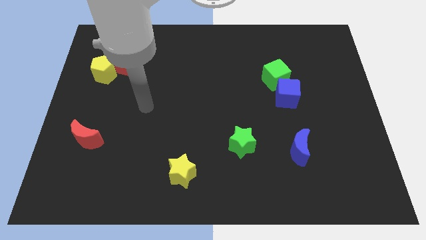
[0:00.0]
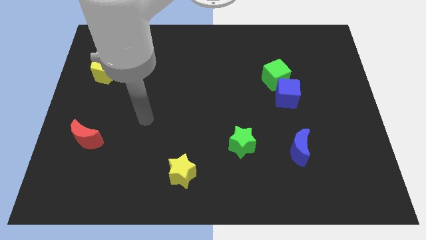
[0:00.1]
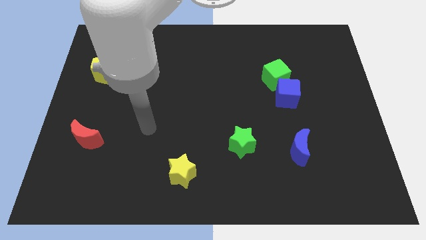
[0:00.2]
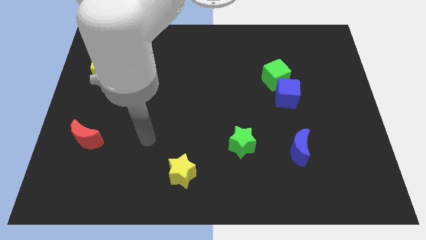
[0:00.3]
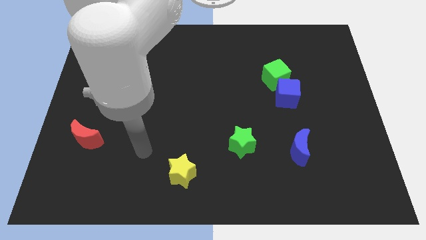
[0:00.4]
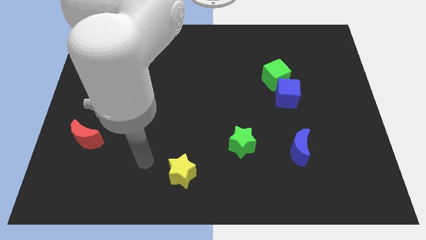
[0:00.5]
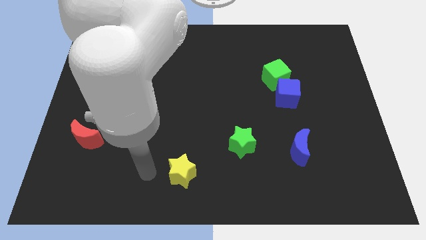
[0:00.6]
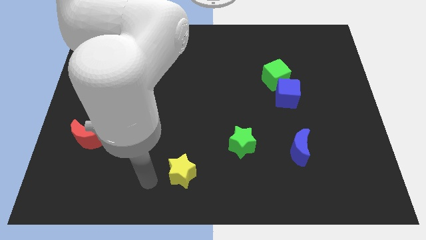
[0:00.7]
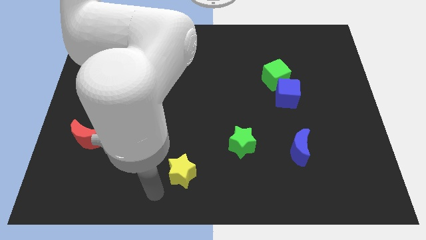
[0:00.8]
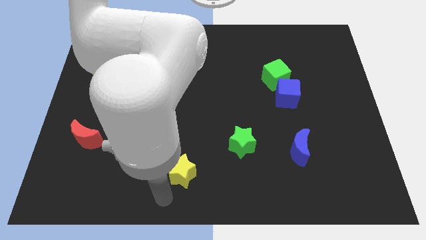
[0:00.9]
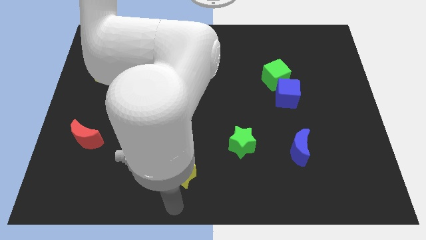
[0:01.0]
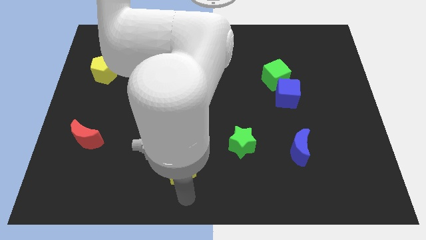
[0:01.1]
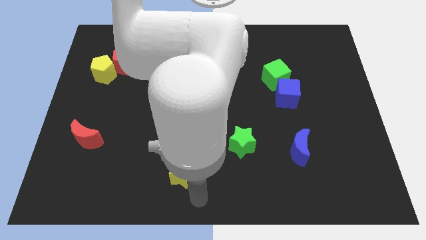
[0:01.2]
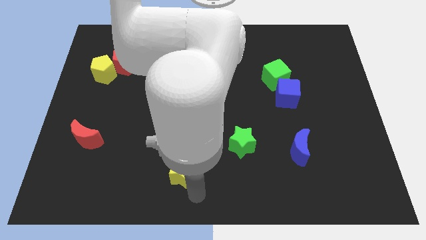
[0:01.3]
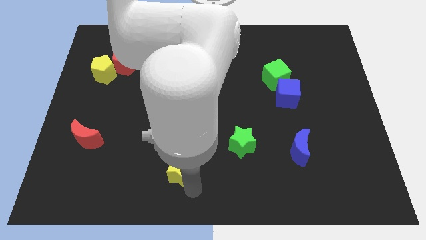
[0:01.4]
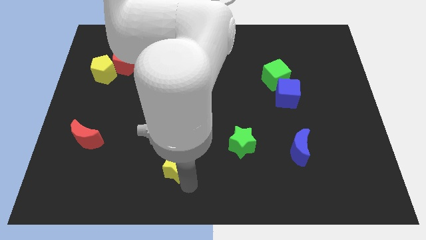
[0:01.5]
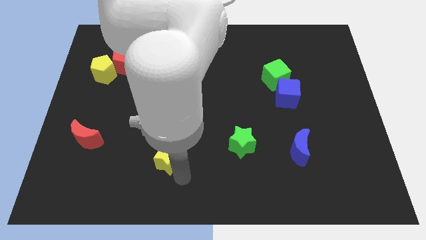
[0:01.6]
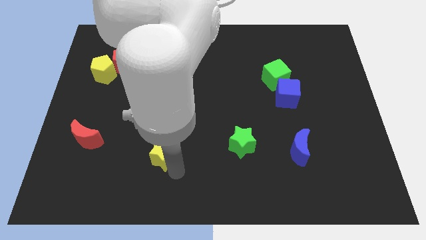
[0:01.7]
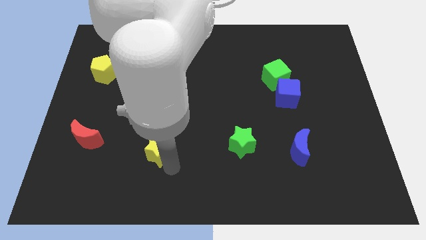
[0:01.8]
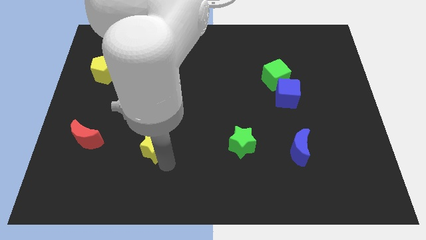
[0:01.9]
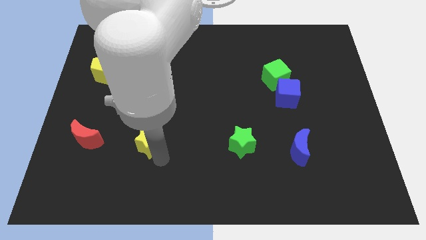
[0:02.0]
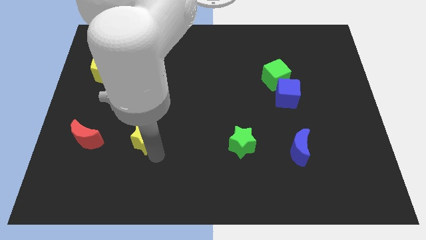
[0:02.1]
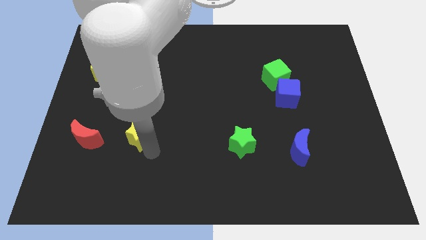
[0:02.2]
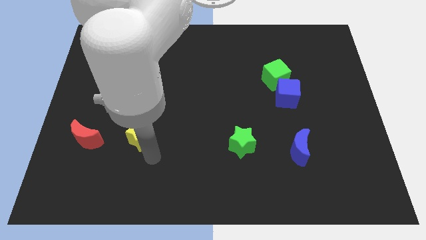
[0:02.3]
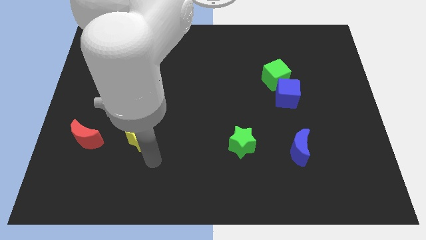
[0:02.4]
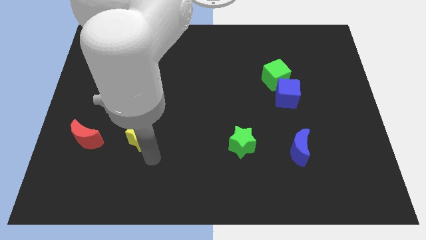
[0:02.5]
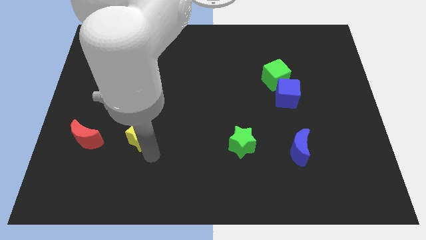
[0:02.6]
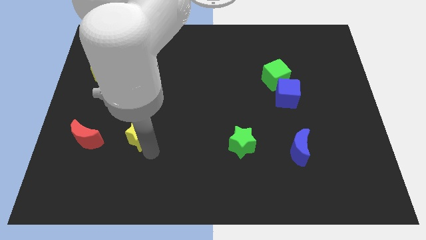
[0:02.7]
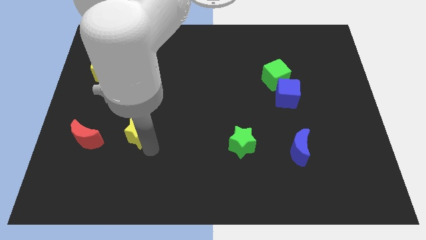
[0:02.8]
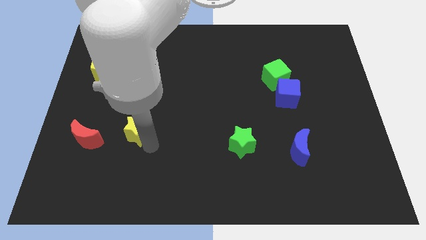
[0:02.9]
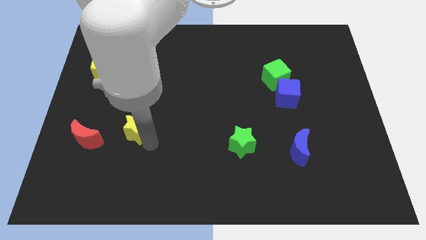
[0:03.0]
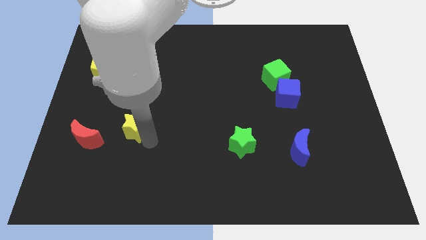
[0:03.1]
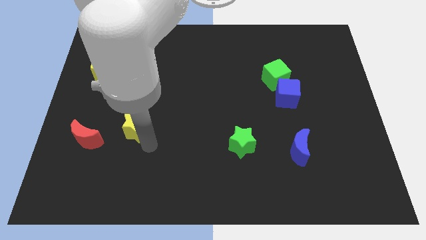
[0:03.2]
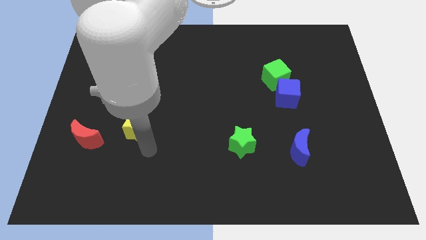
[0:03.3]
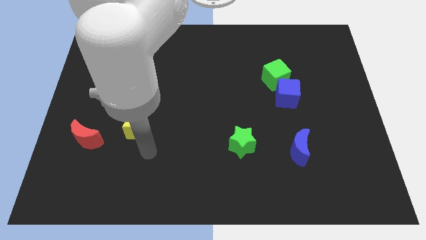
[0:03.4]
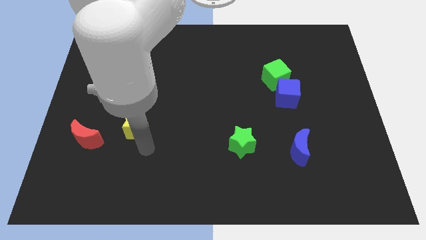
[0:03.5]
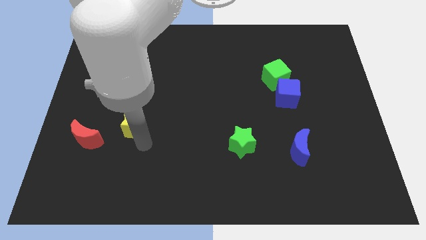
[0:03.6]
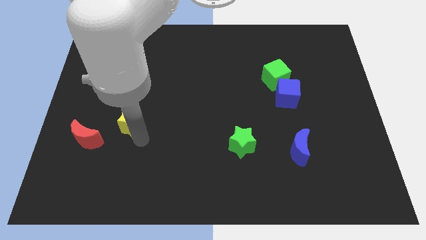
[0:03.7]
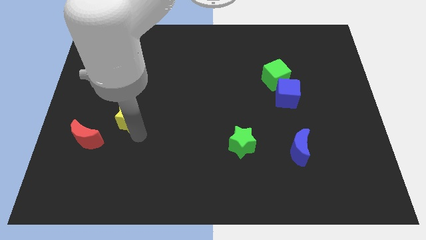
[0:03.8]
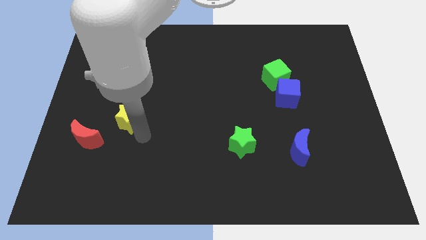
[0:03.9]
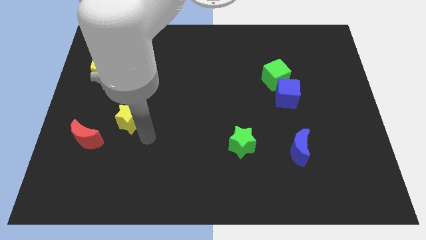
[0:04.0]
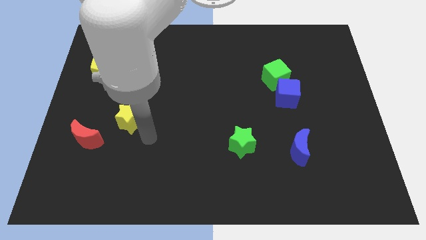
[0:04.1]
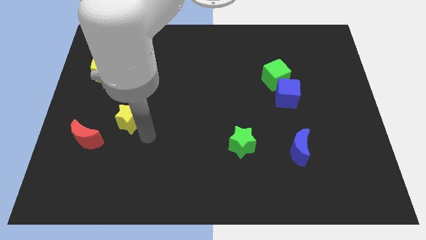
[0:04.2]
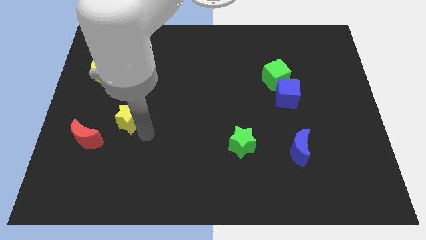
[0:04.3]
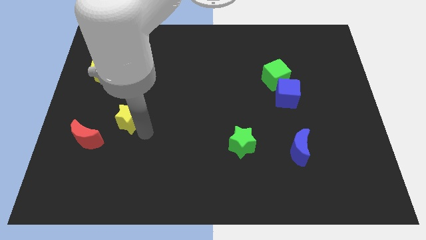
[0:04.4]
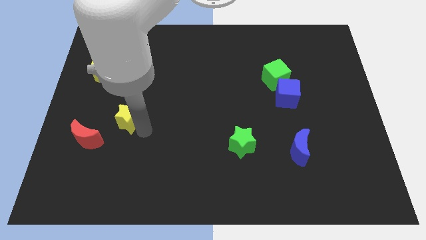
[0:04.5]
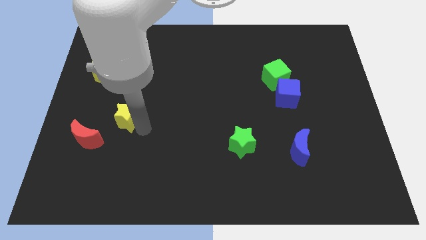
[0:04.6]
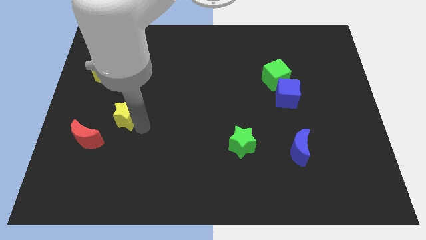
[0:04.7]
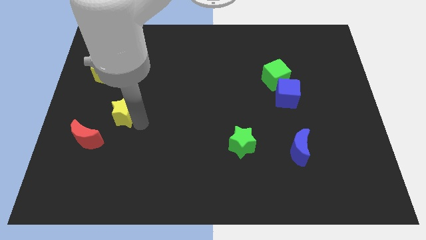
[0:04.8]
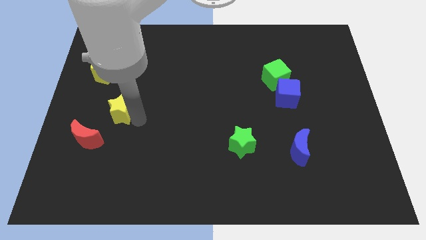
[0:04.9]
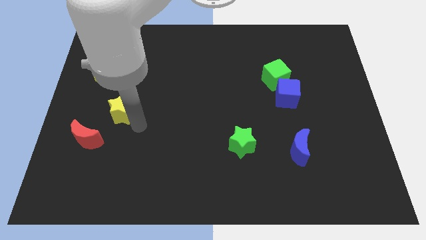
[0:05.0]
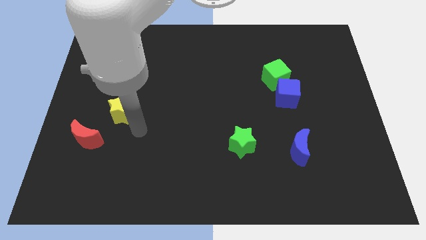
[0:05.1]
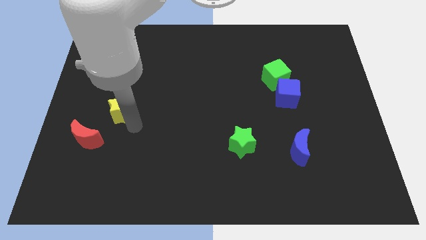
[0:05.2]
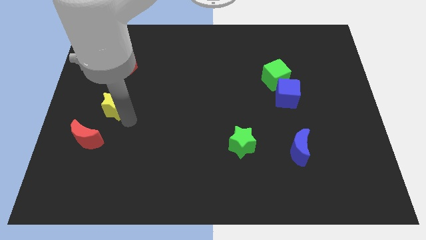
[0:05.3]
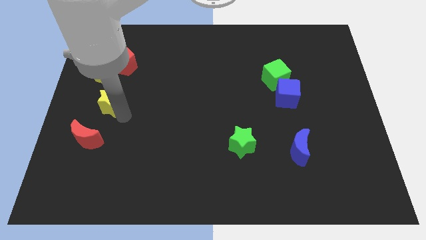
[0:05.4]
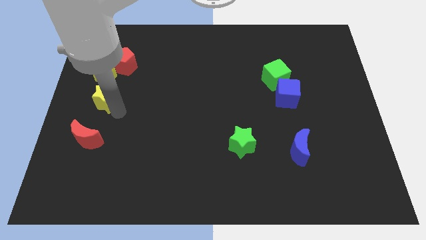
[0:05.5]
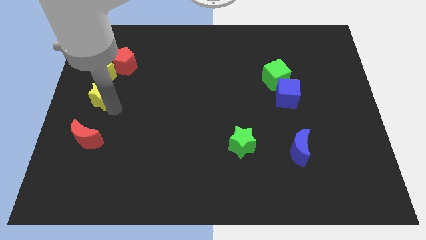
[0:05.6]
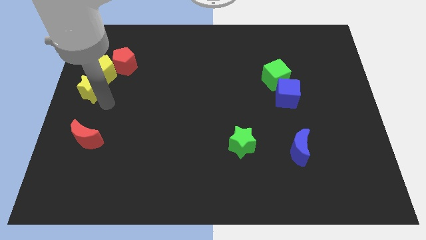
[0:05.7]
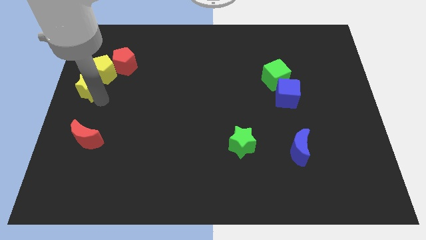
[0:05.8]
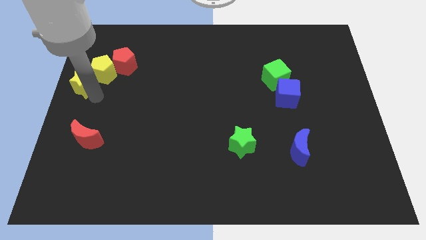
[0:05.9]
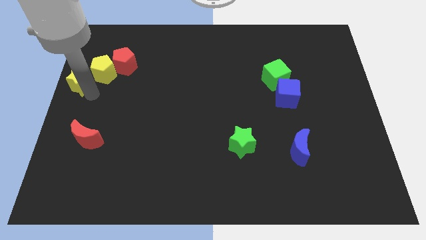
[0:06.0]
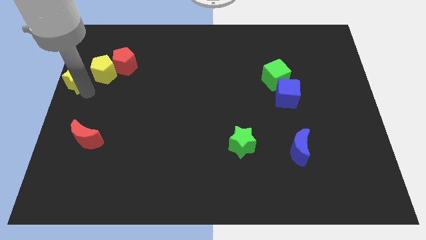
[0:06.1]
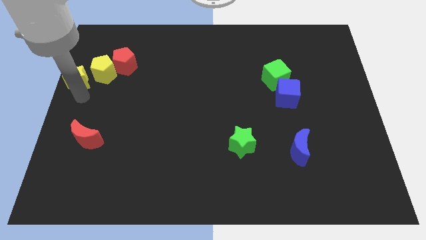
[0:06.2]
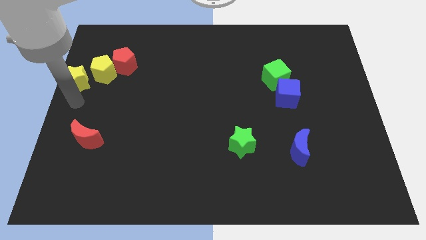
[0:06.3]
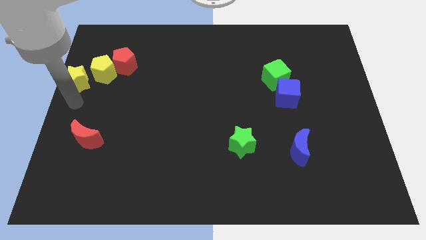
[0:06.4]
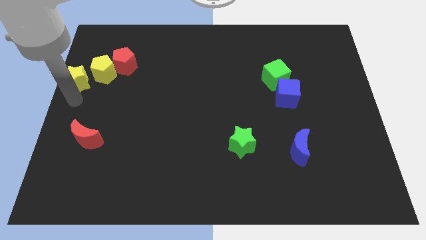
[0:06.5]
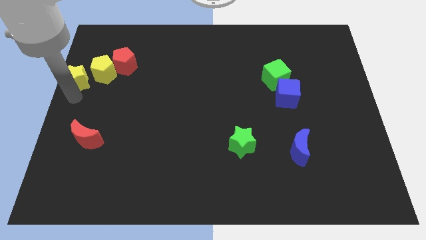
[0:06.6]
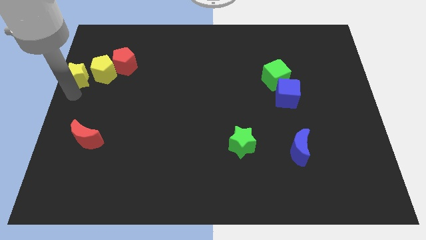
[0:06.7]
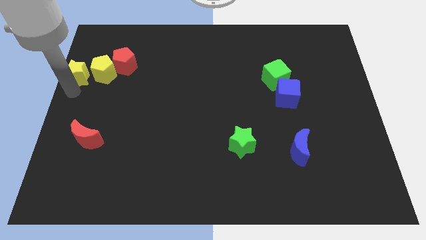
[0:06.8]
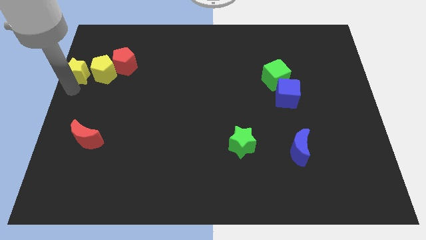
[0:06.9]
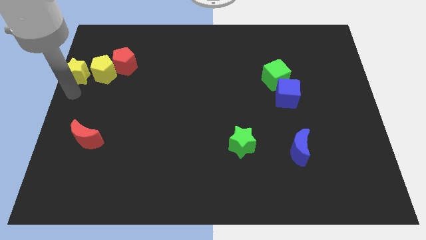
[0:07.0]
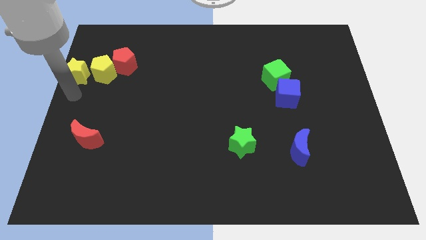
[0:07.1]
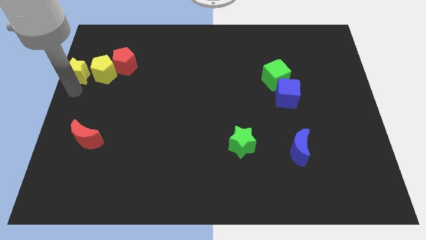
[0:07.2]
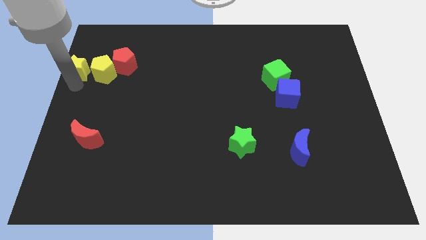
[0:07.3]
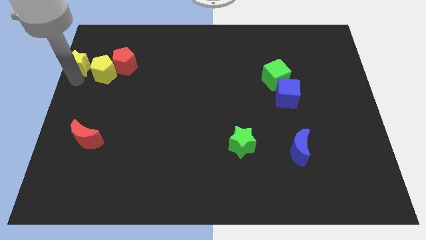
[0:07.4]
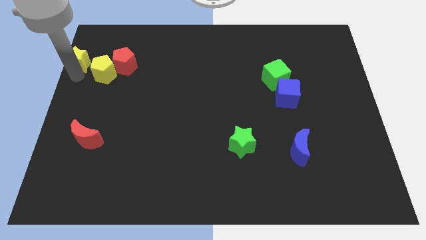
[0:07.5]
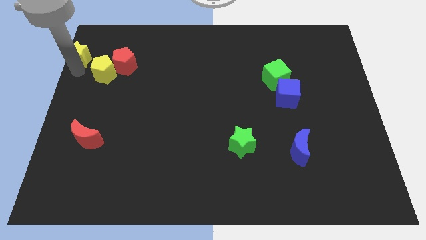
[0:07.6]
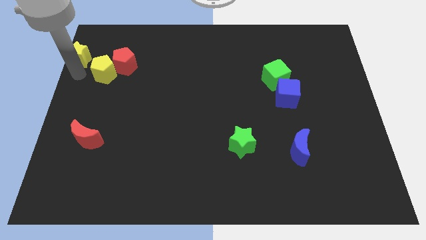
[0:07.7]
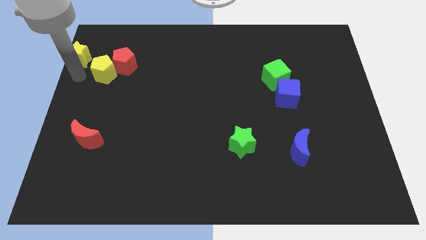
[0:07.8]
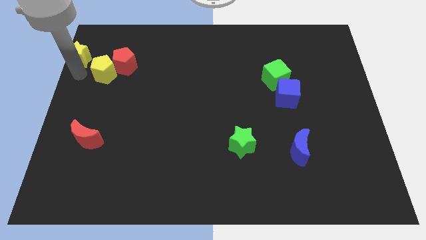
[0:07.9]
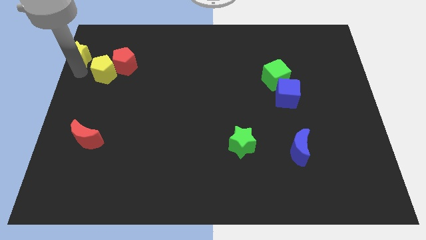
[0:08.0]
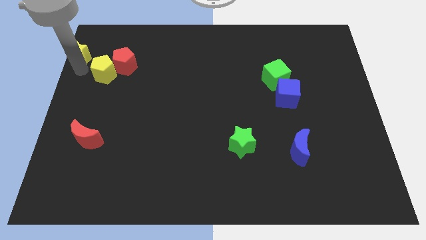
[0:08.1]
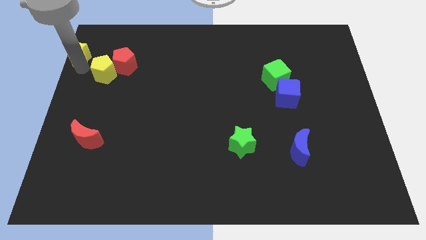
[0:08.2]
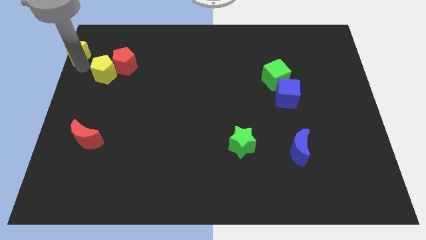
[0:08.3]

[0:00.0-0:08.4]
push the yellow star to the top left corner
